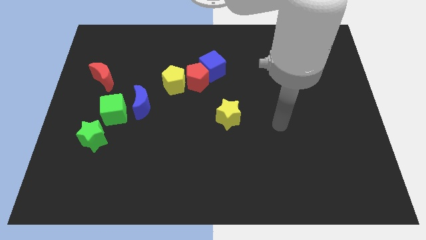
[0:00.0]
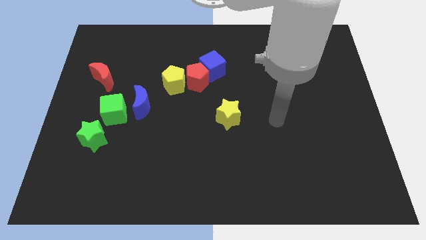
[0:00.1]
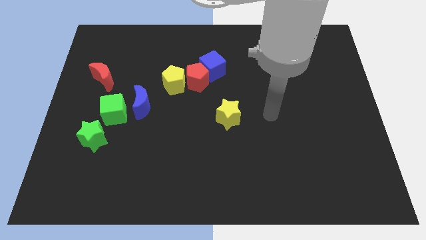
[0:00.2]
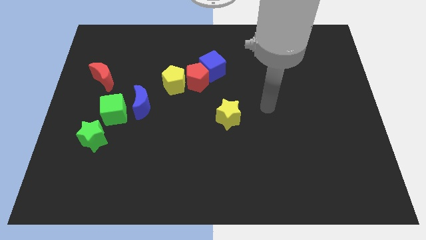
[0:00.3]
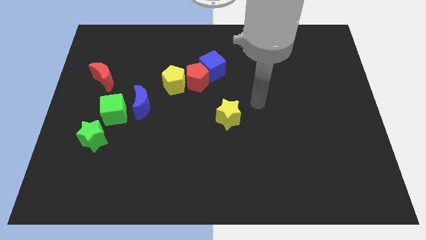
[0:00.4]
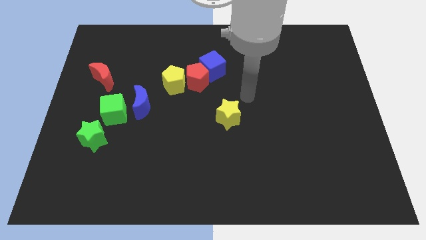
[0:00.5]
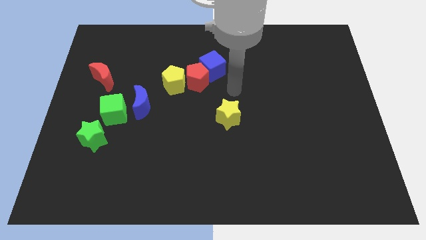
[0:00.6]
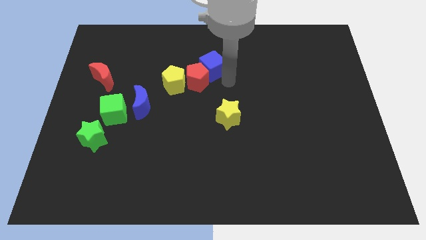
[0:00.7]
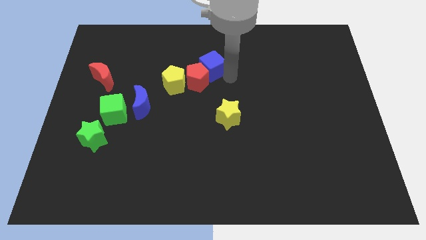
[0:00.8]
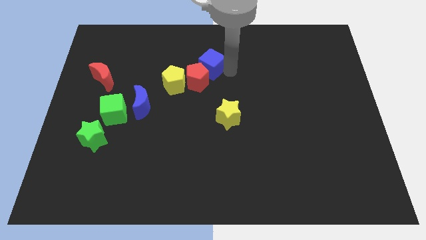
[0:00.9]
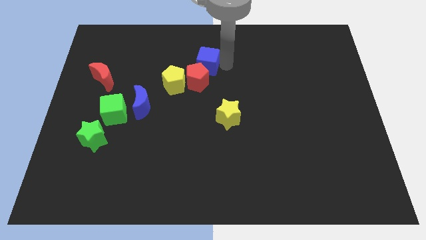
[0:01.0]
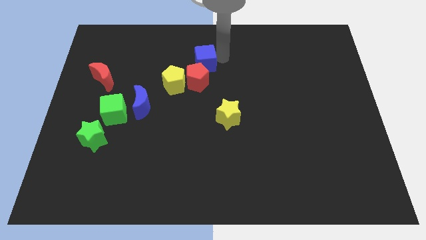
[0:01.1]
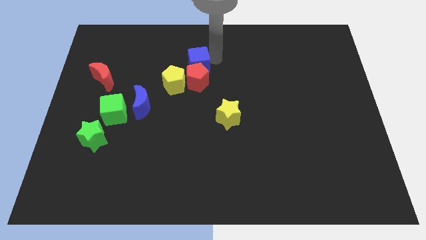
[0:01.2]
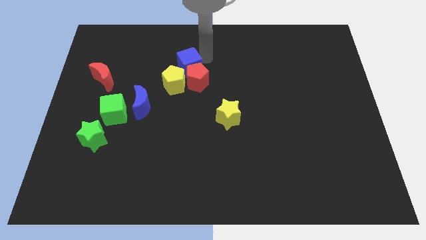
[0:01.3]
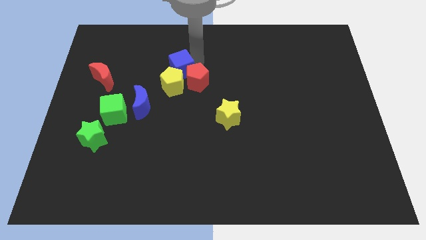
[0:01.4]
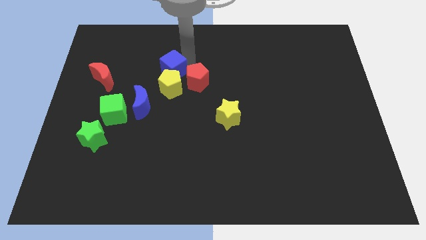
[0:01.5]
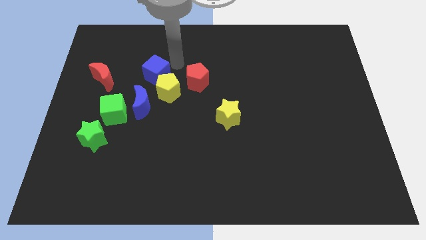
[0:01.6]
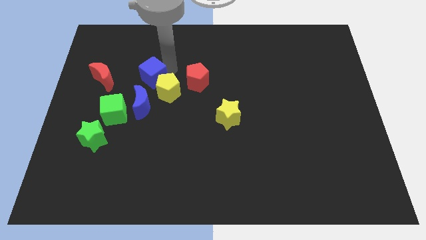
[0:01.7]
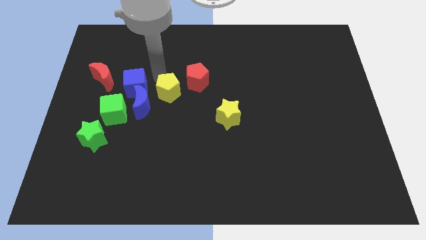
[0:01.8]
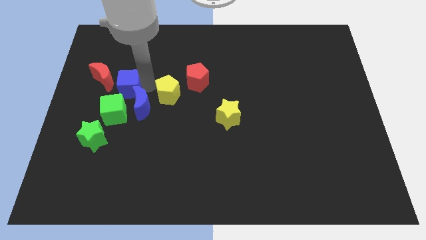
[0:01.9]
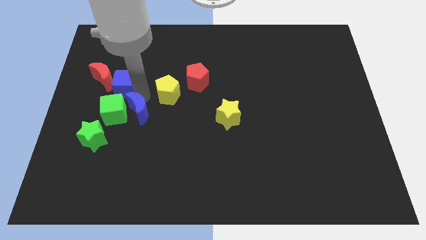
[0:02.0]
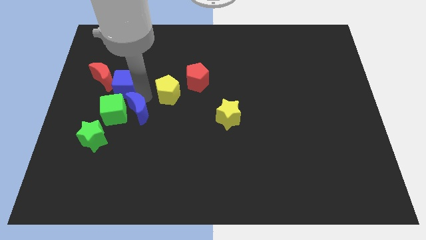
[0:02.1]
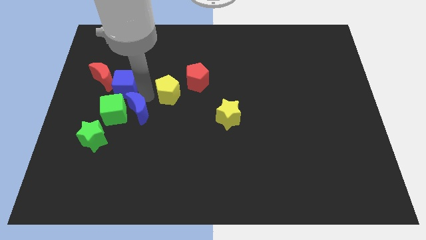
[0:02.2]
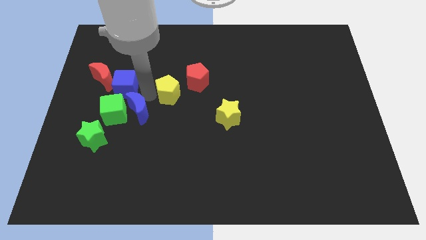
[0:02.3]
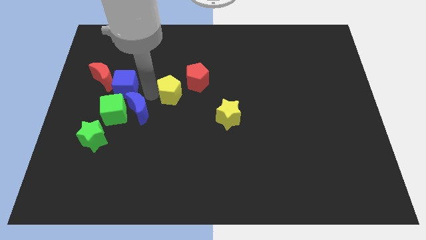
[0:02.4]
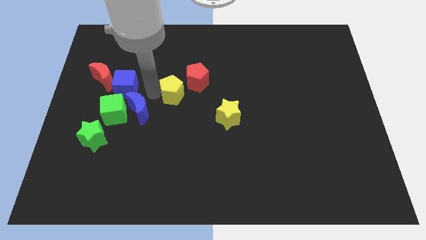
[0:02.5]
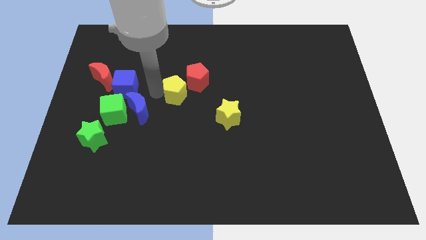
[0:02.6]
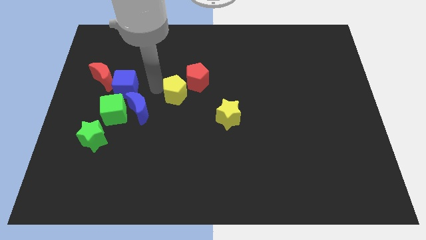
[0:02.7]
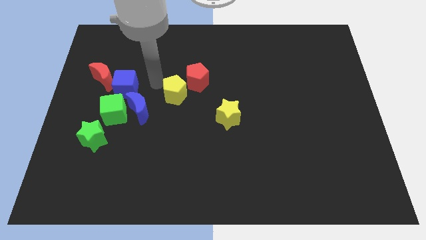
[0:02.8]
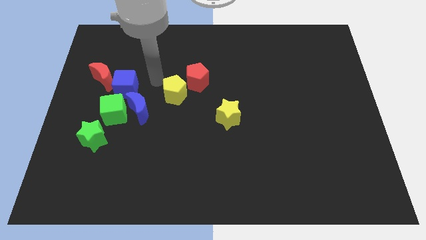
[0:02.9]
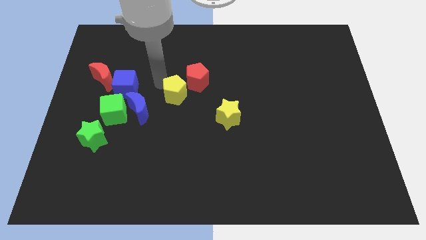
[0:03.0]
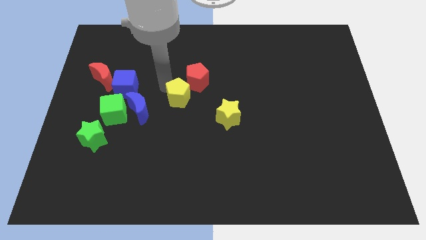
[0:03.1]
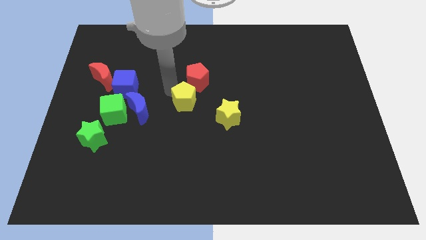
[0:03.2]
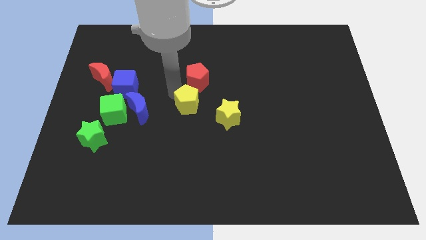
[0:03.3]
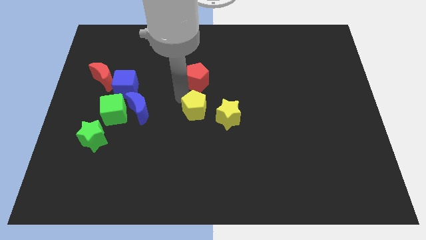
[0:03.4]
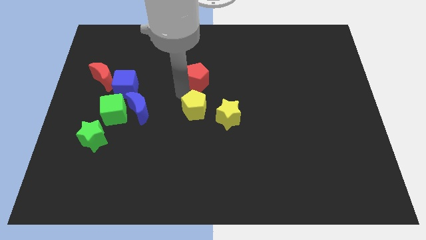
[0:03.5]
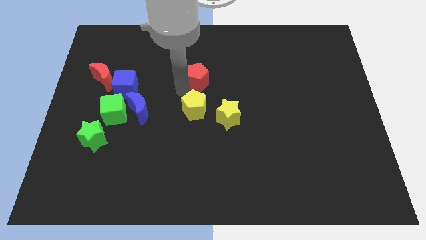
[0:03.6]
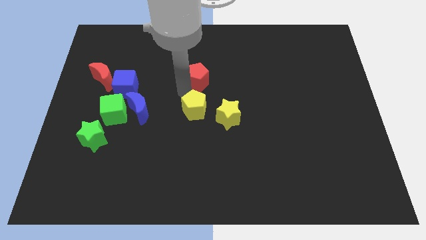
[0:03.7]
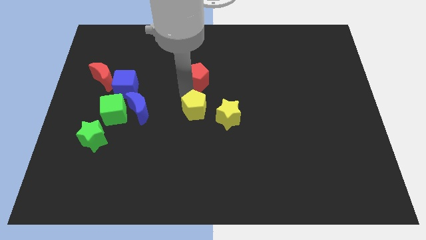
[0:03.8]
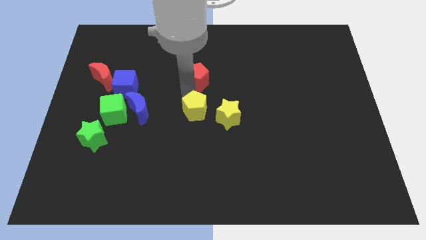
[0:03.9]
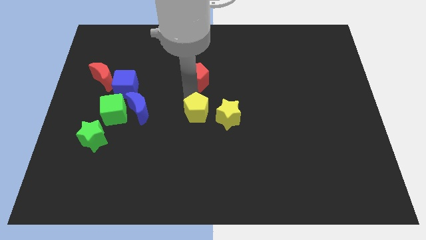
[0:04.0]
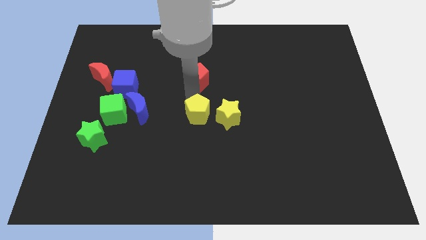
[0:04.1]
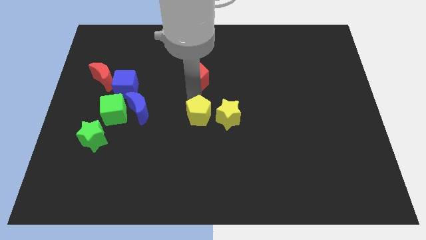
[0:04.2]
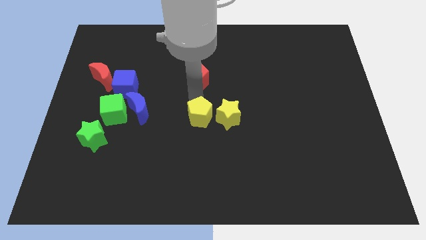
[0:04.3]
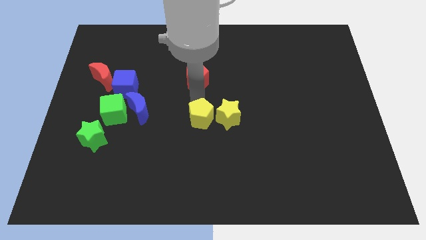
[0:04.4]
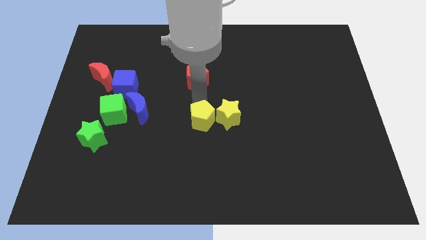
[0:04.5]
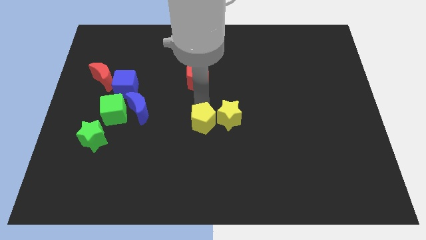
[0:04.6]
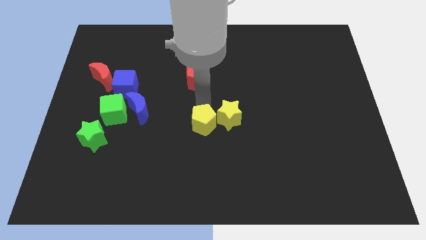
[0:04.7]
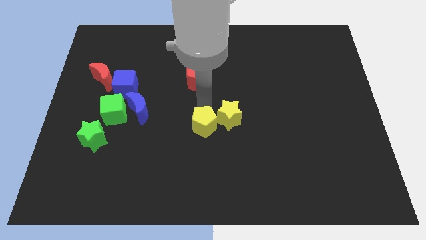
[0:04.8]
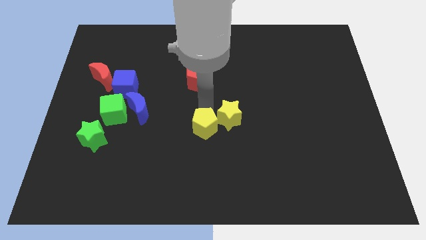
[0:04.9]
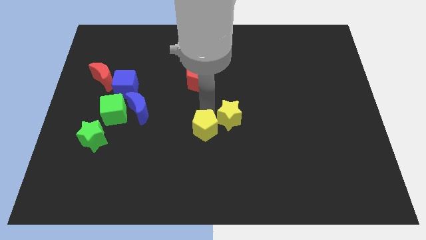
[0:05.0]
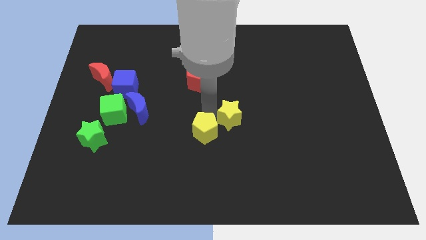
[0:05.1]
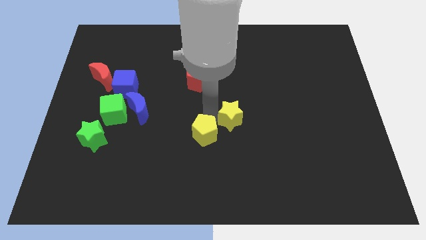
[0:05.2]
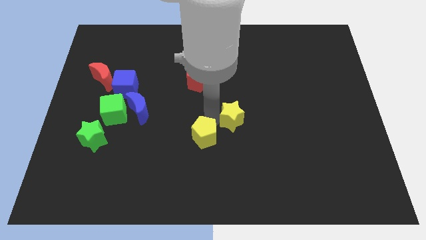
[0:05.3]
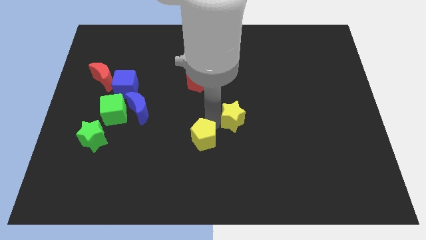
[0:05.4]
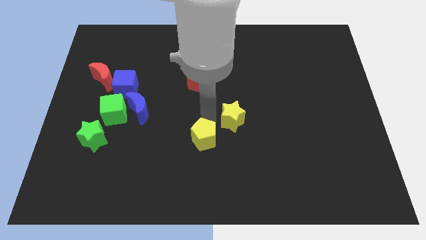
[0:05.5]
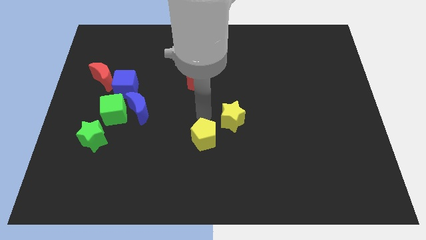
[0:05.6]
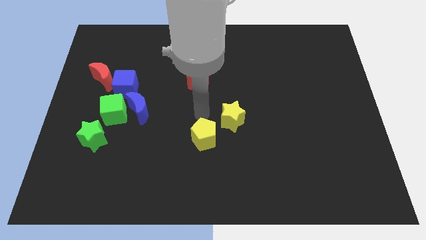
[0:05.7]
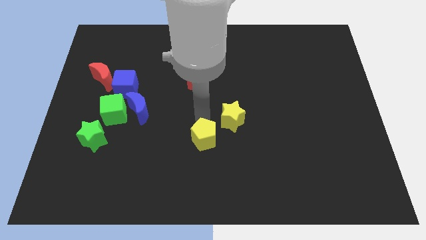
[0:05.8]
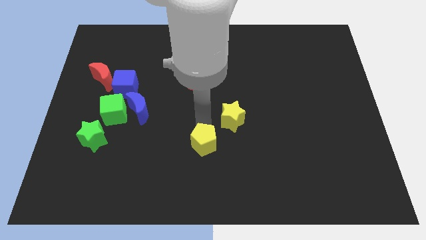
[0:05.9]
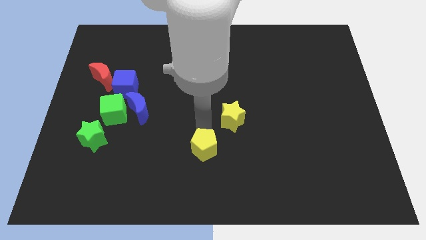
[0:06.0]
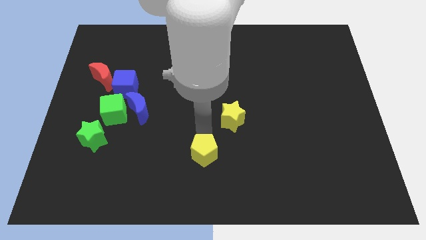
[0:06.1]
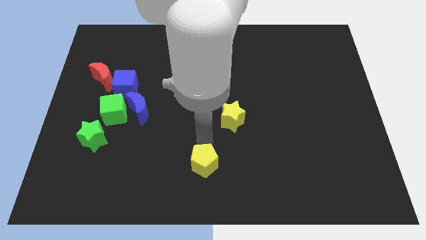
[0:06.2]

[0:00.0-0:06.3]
put the yellow pentagon to the bottom side
